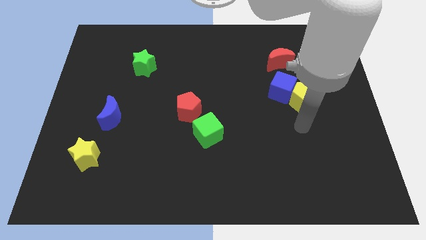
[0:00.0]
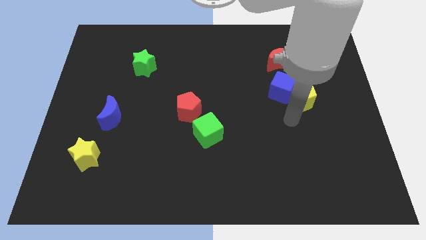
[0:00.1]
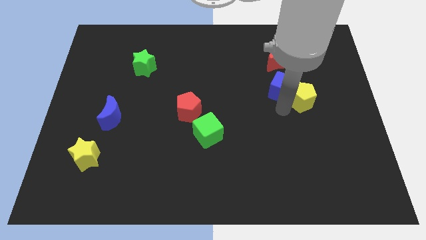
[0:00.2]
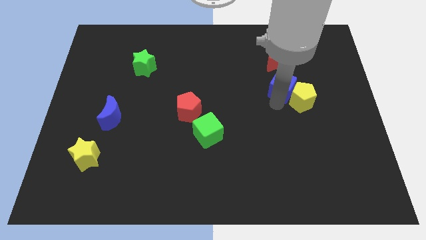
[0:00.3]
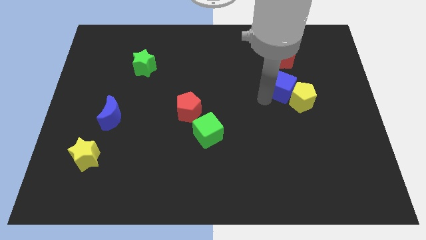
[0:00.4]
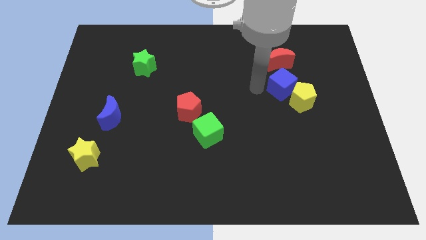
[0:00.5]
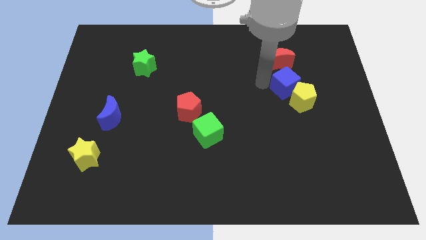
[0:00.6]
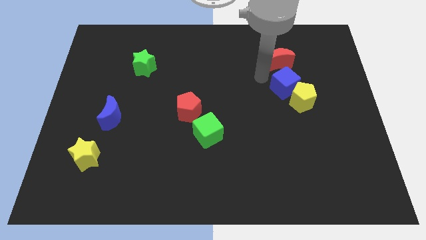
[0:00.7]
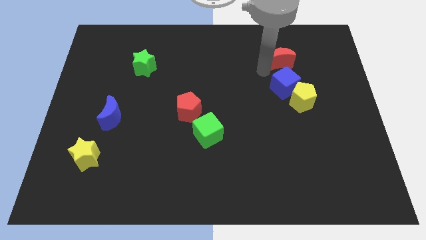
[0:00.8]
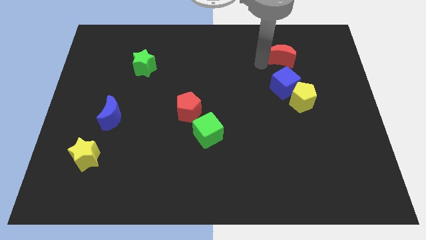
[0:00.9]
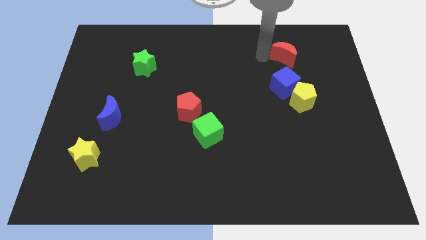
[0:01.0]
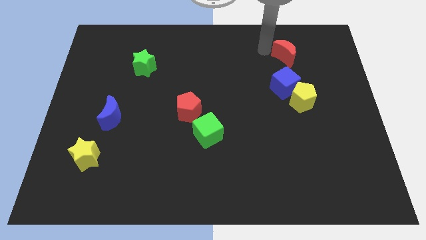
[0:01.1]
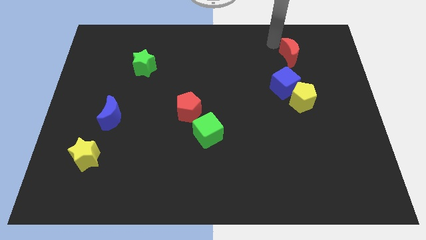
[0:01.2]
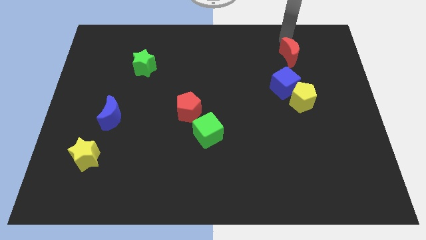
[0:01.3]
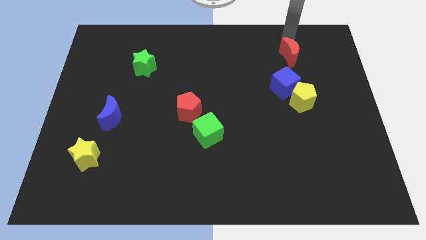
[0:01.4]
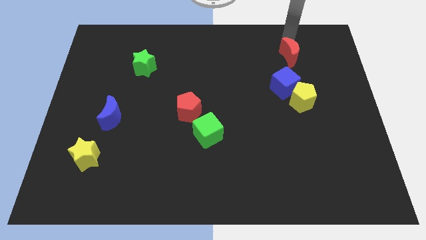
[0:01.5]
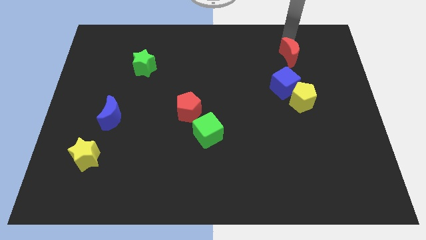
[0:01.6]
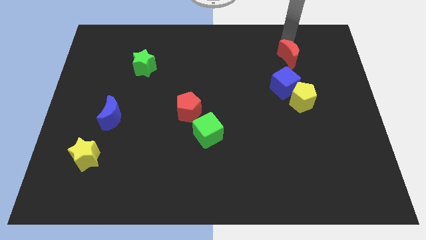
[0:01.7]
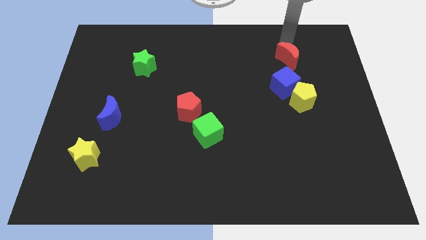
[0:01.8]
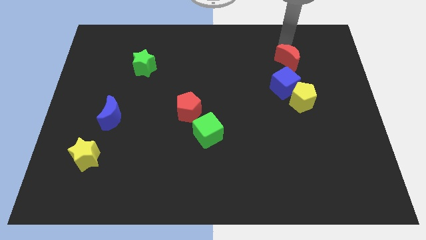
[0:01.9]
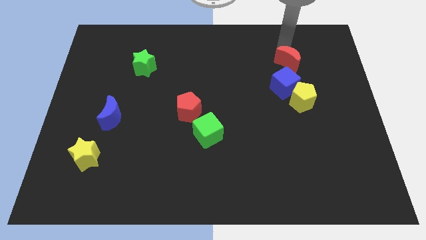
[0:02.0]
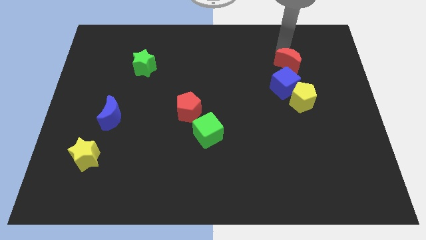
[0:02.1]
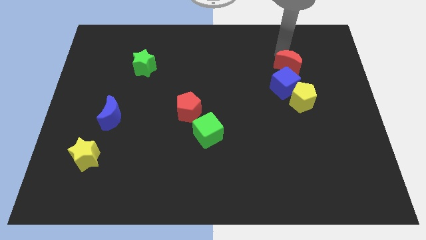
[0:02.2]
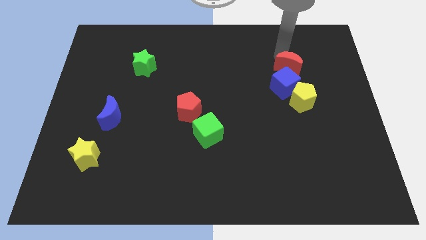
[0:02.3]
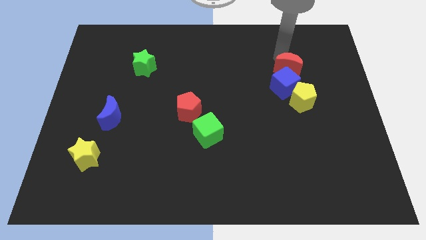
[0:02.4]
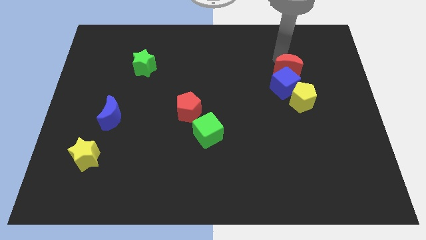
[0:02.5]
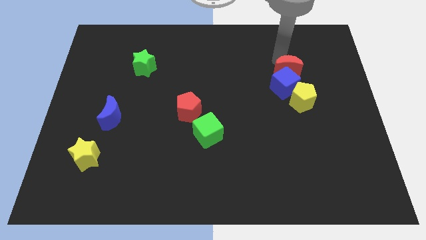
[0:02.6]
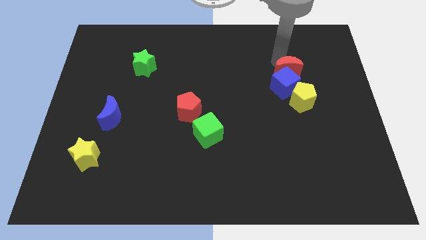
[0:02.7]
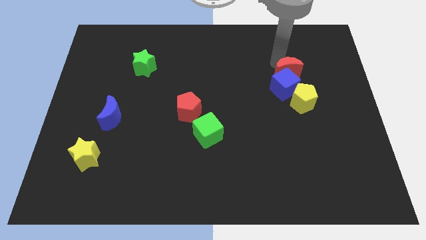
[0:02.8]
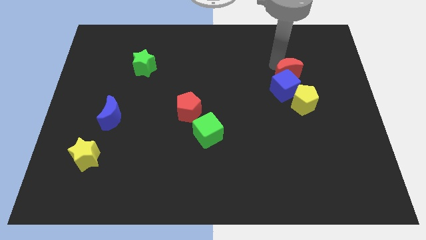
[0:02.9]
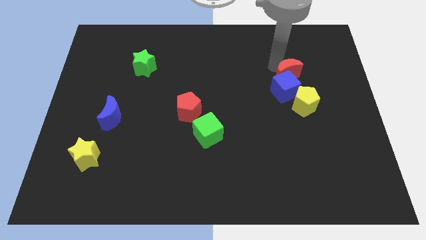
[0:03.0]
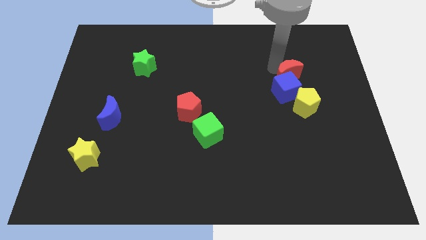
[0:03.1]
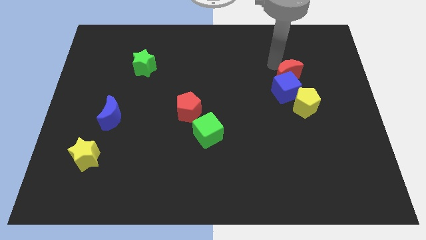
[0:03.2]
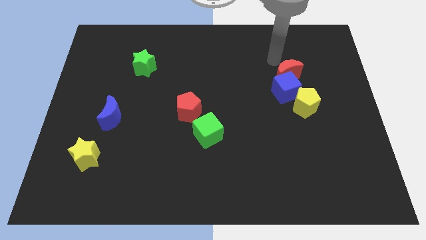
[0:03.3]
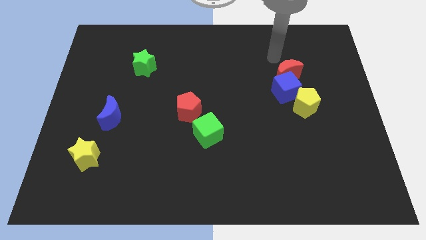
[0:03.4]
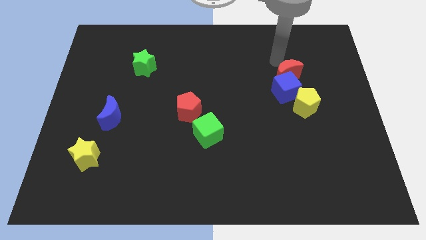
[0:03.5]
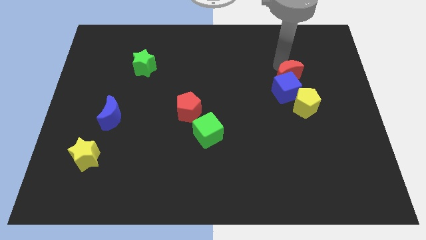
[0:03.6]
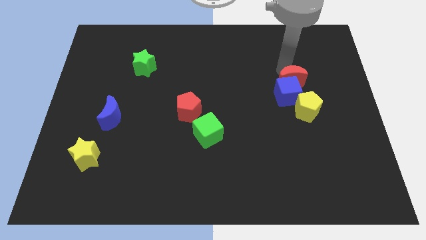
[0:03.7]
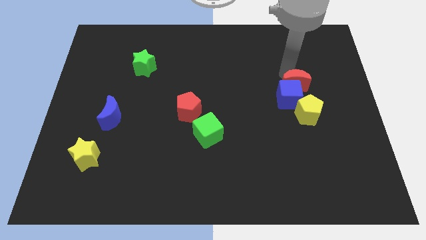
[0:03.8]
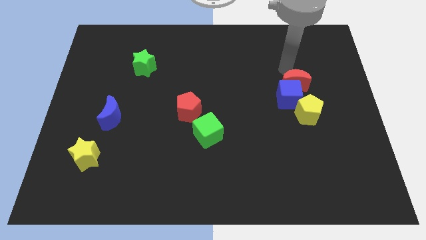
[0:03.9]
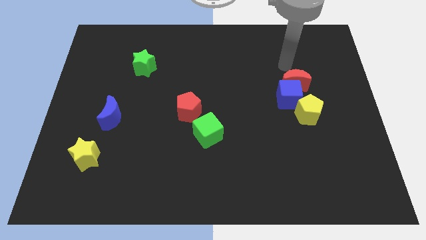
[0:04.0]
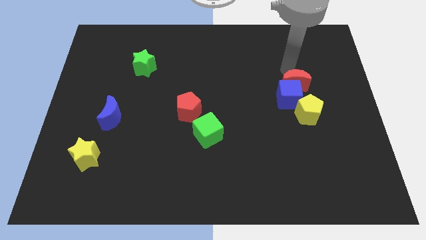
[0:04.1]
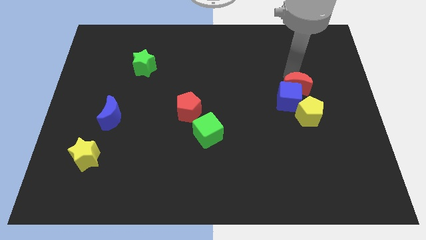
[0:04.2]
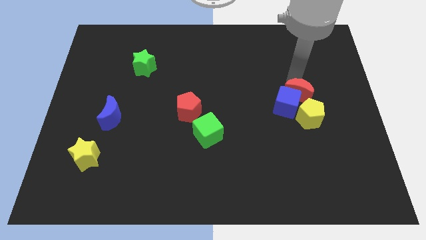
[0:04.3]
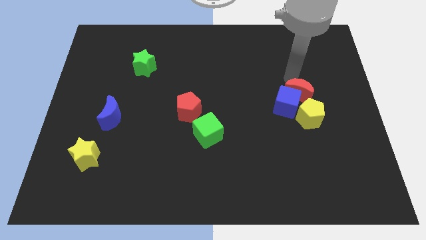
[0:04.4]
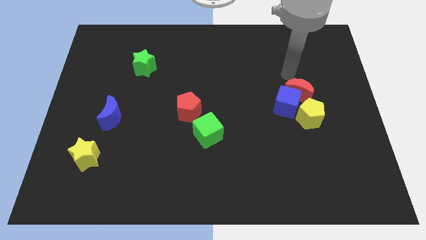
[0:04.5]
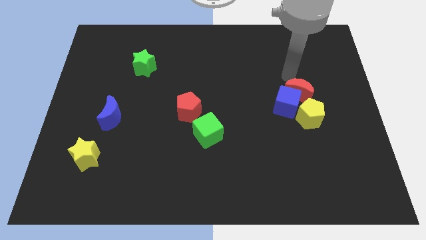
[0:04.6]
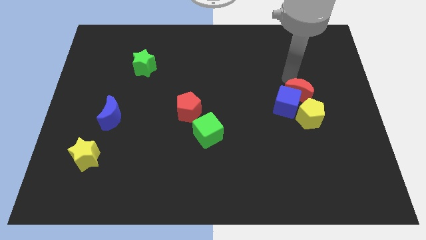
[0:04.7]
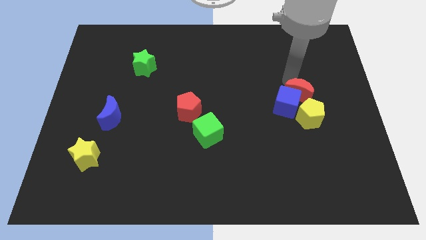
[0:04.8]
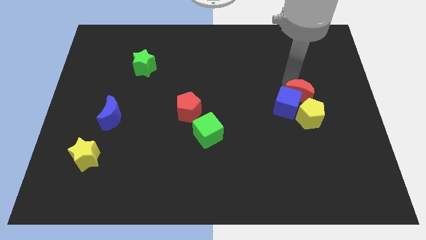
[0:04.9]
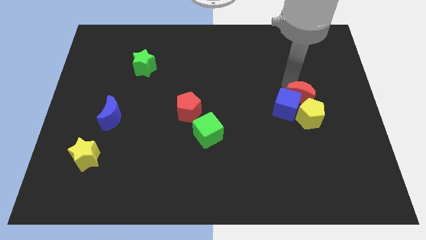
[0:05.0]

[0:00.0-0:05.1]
slide the red moon close to the yellow pentagon

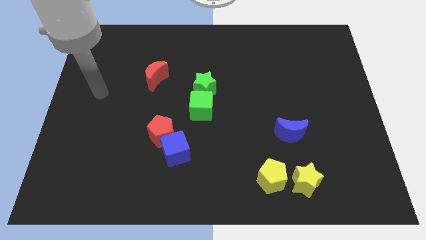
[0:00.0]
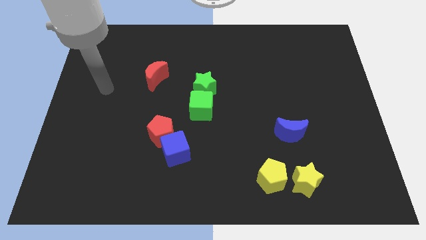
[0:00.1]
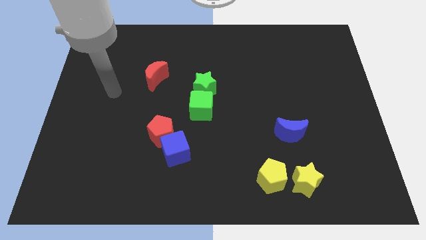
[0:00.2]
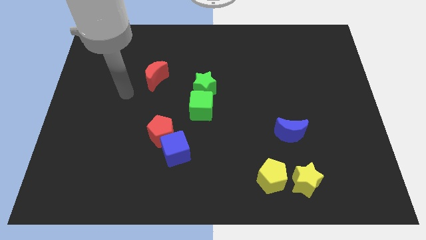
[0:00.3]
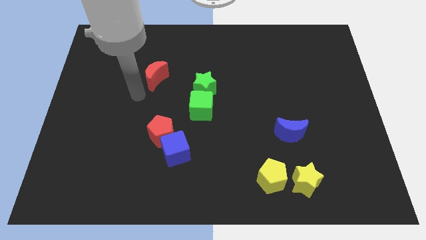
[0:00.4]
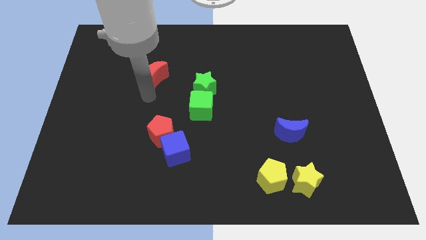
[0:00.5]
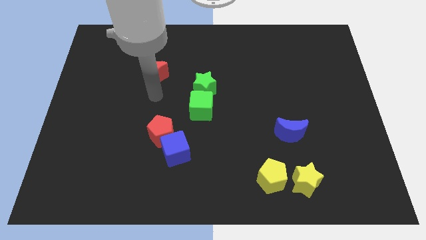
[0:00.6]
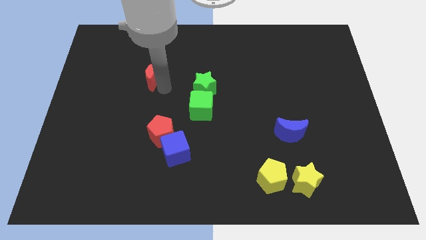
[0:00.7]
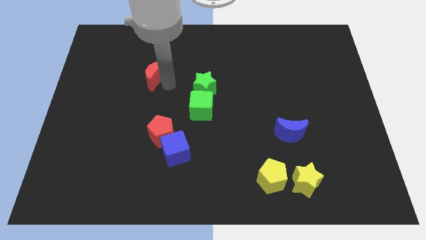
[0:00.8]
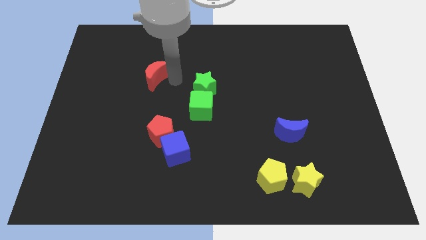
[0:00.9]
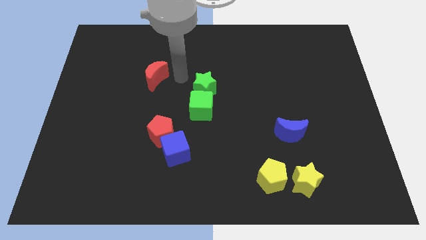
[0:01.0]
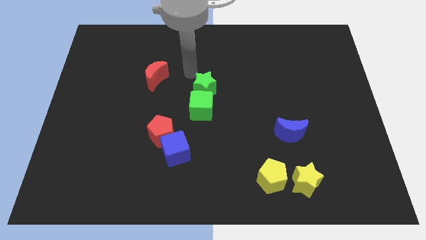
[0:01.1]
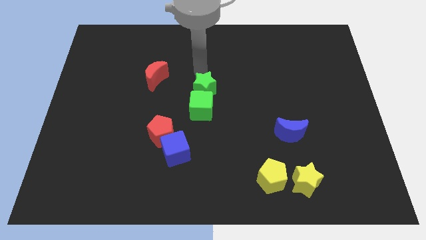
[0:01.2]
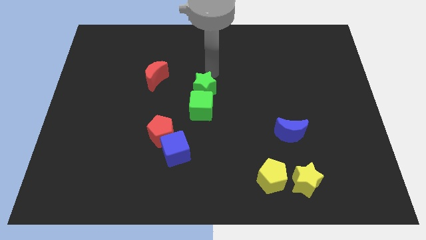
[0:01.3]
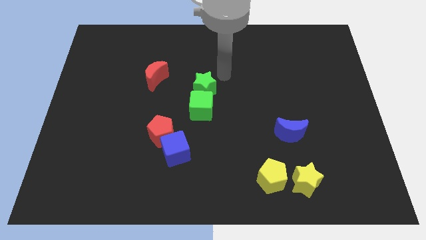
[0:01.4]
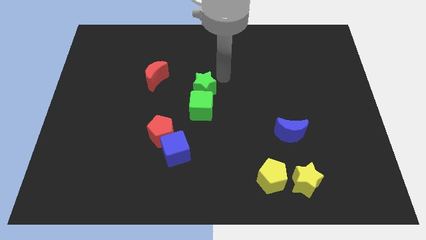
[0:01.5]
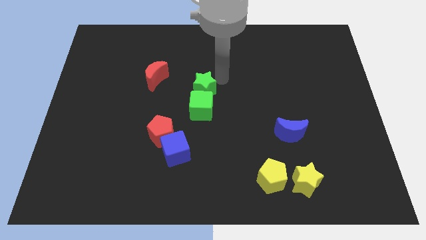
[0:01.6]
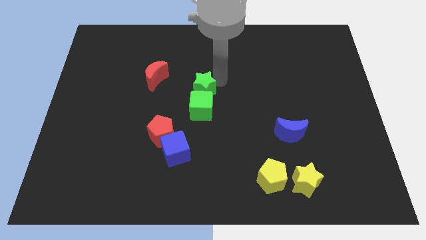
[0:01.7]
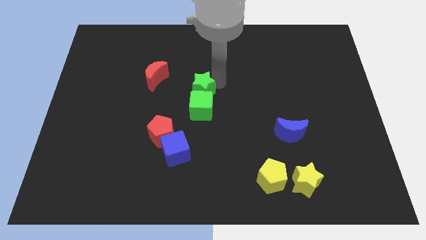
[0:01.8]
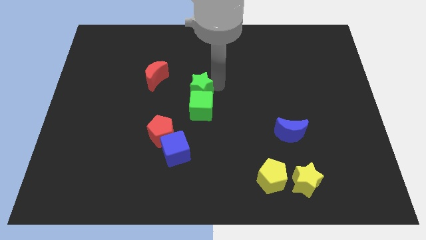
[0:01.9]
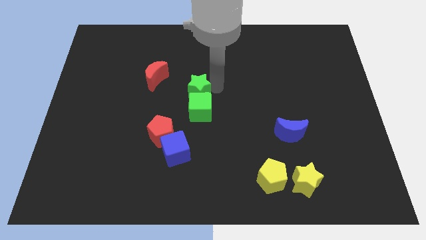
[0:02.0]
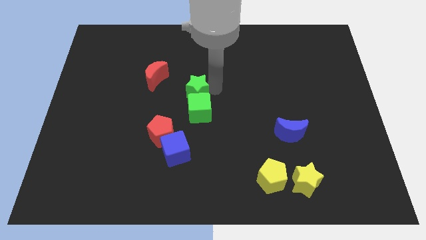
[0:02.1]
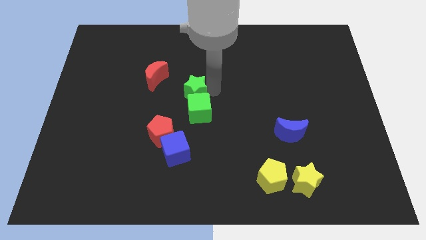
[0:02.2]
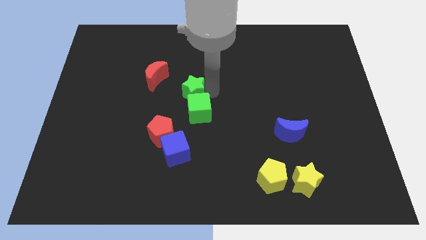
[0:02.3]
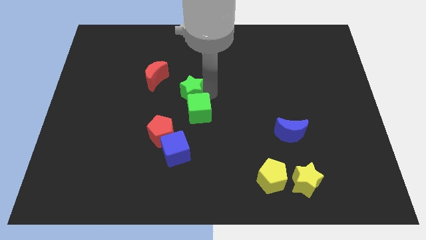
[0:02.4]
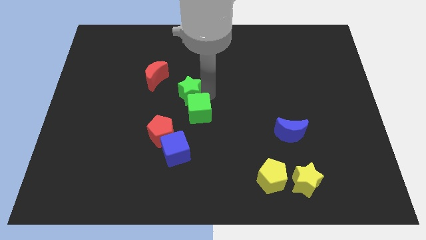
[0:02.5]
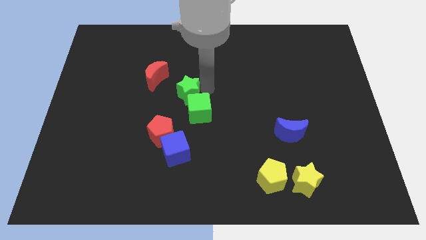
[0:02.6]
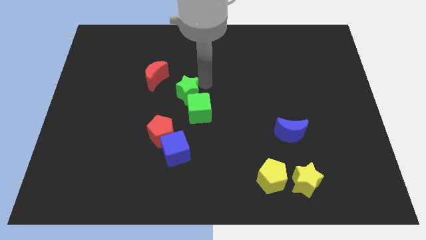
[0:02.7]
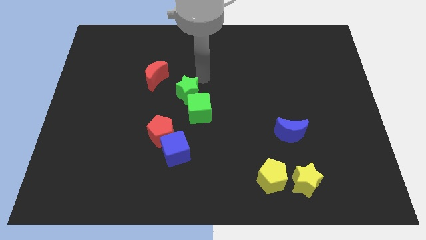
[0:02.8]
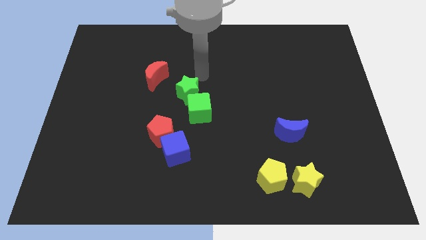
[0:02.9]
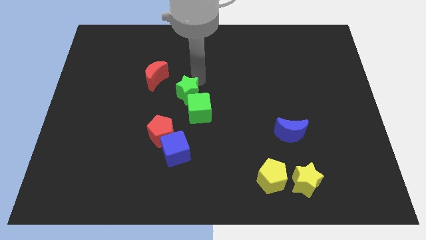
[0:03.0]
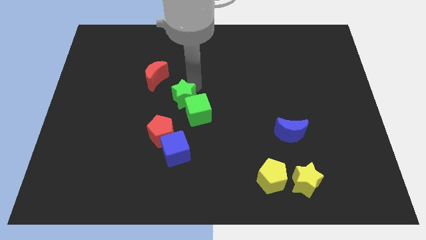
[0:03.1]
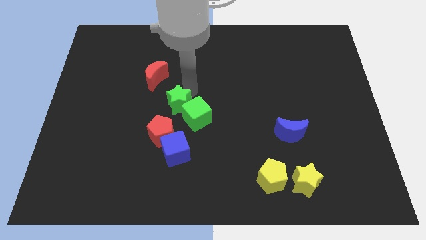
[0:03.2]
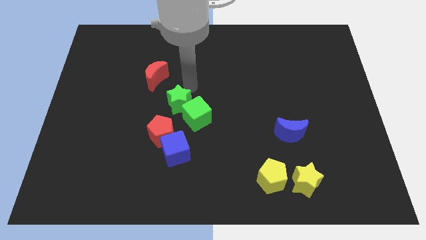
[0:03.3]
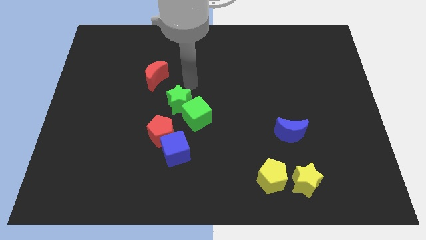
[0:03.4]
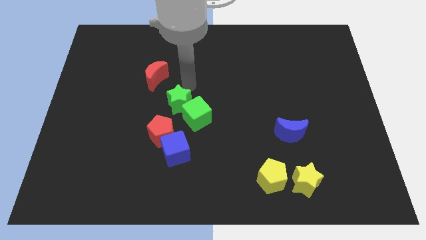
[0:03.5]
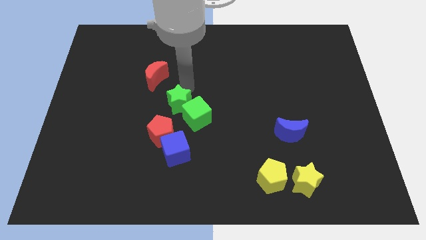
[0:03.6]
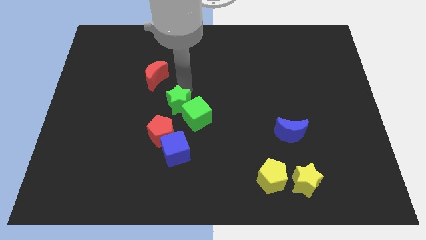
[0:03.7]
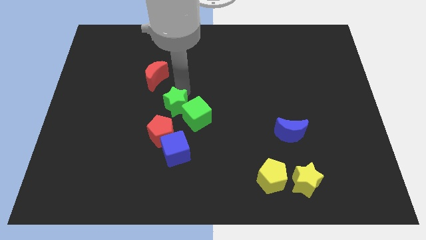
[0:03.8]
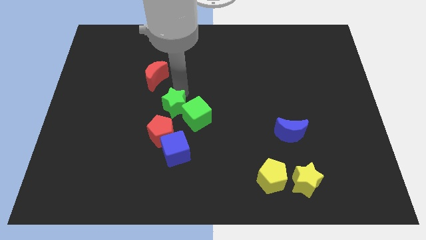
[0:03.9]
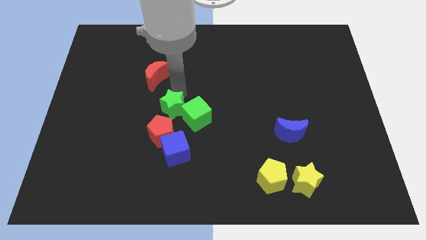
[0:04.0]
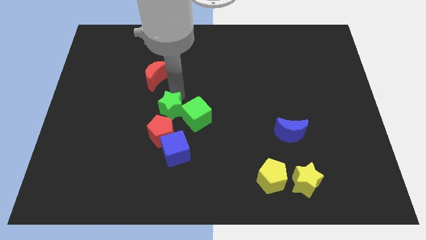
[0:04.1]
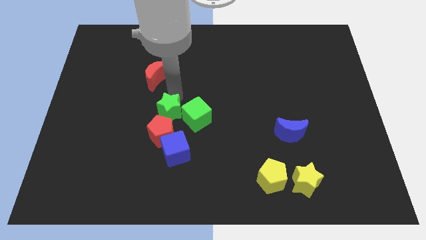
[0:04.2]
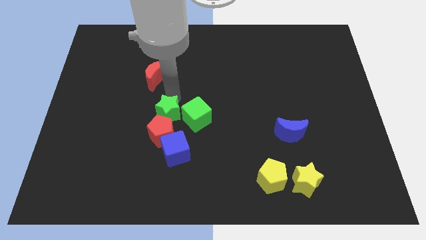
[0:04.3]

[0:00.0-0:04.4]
move the green star next to the red pentagon
